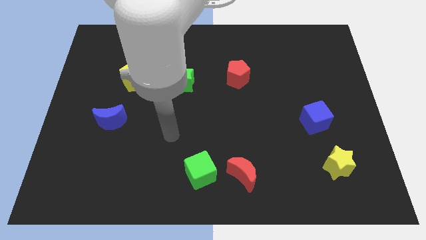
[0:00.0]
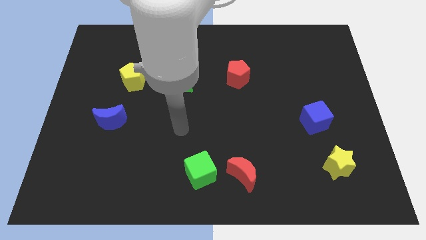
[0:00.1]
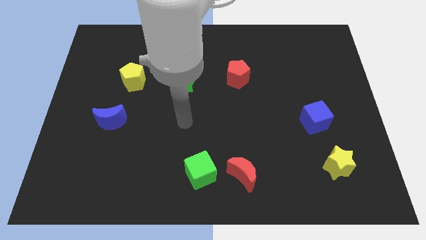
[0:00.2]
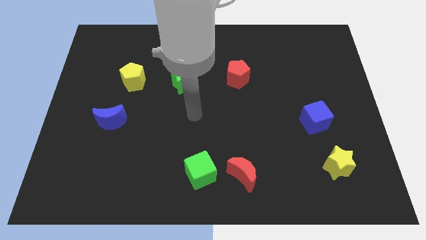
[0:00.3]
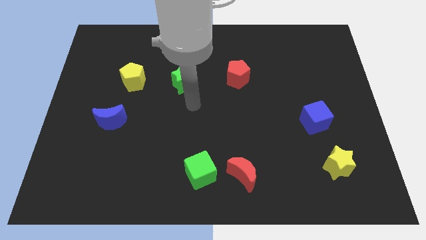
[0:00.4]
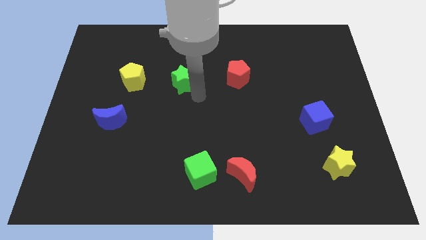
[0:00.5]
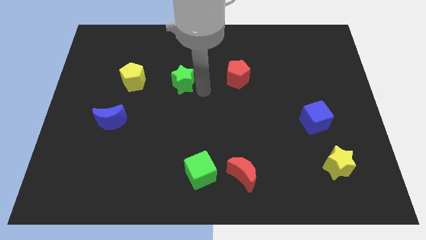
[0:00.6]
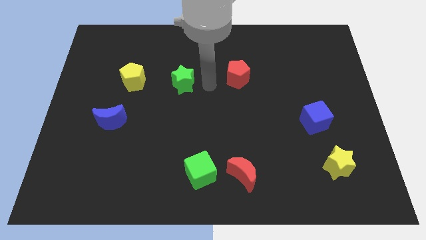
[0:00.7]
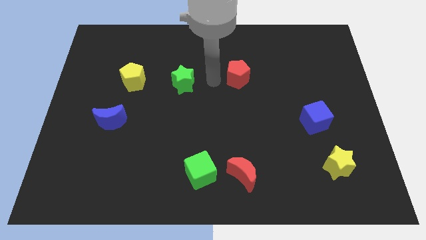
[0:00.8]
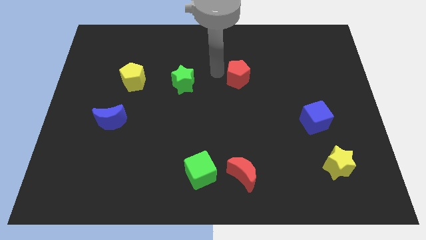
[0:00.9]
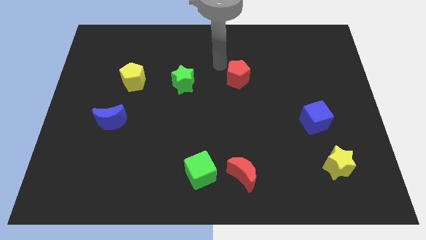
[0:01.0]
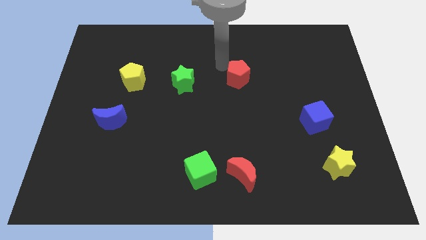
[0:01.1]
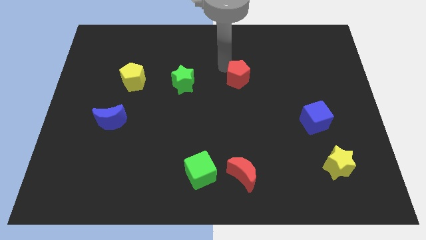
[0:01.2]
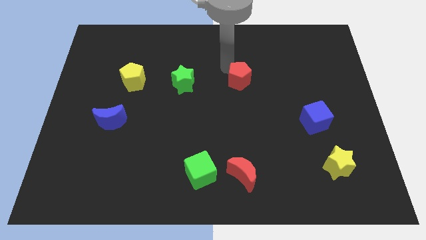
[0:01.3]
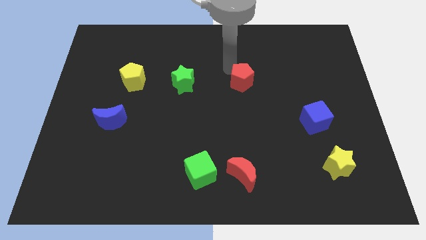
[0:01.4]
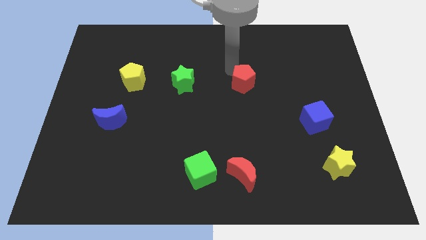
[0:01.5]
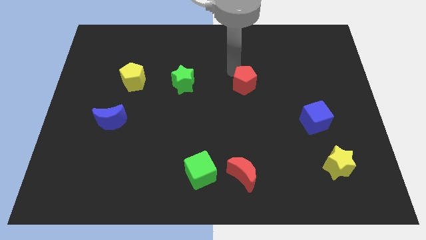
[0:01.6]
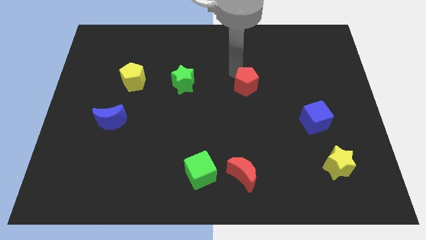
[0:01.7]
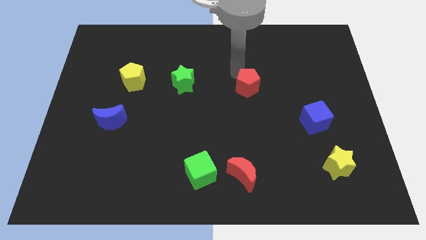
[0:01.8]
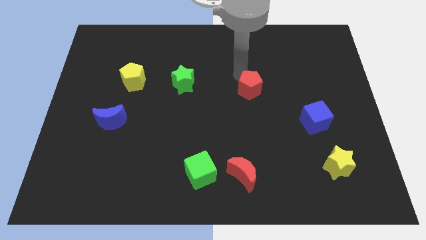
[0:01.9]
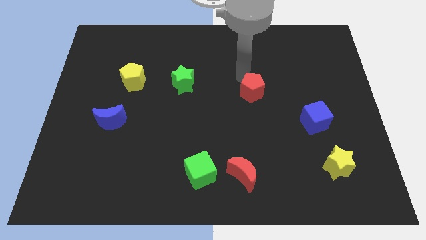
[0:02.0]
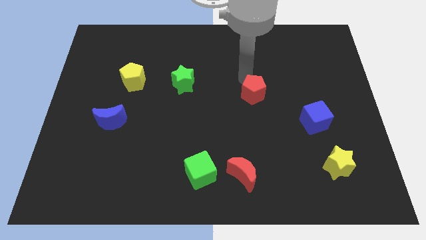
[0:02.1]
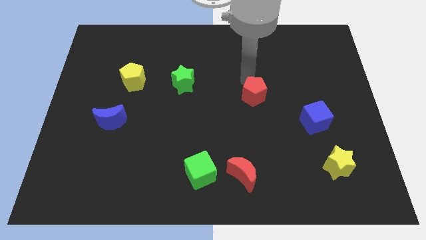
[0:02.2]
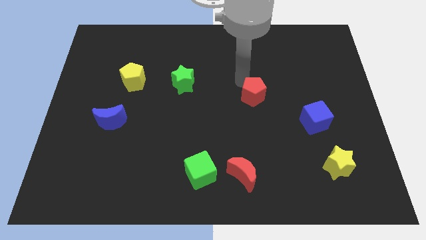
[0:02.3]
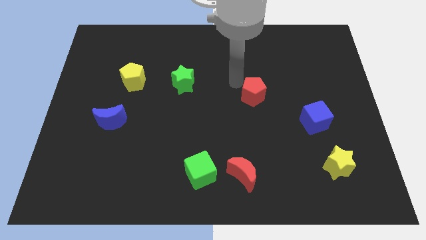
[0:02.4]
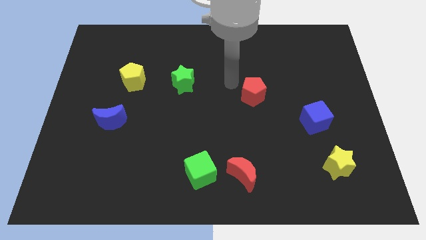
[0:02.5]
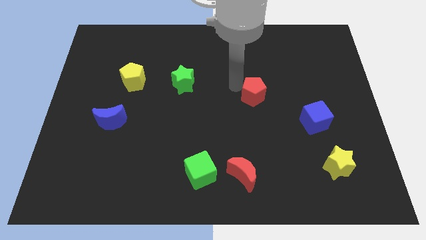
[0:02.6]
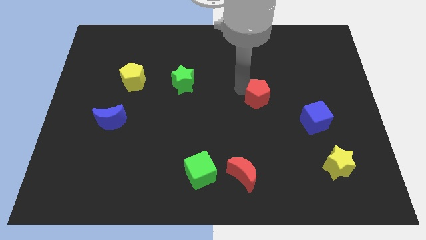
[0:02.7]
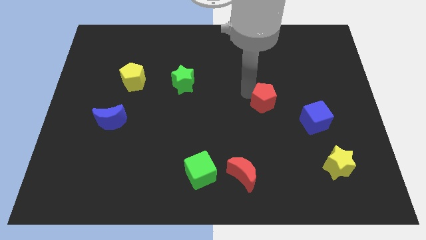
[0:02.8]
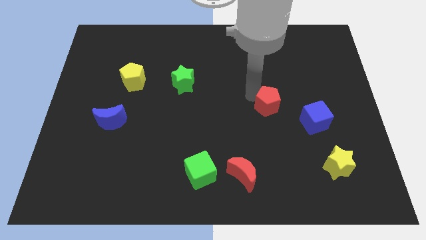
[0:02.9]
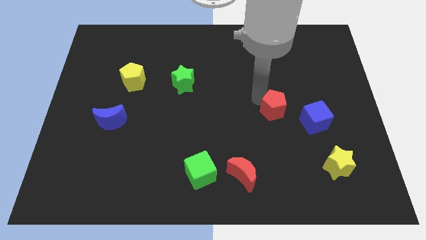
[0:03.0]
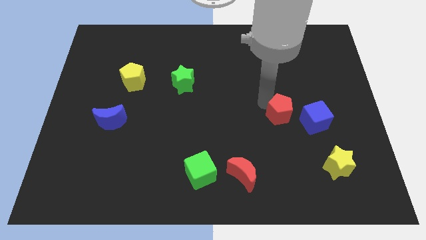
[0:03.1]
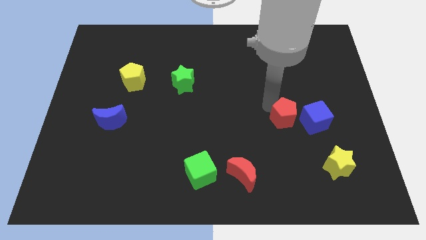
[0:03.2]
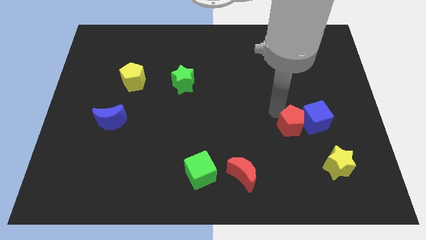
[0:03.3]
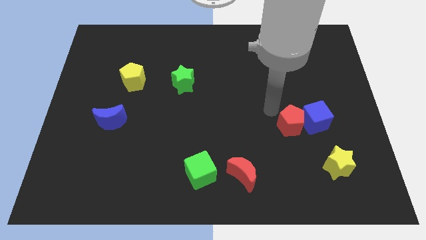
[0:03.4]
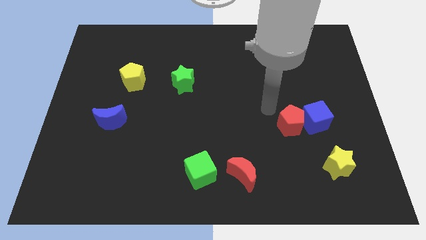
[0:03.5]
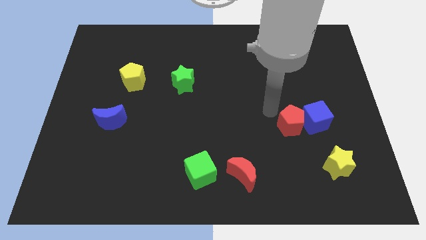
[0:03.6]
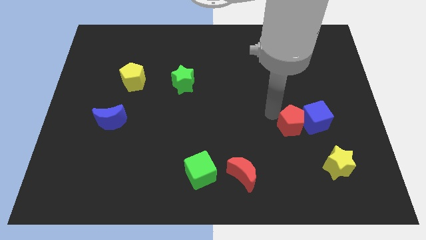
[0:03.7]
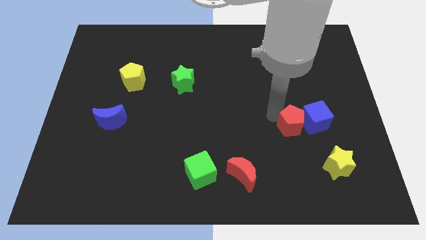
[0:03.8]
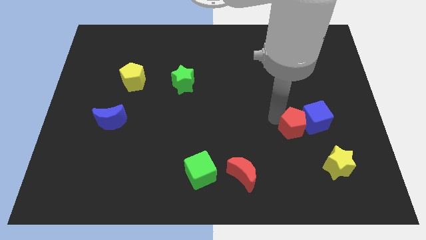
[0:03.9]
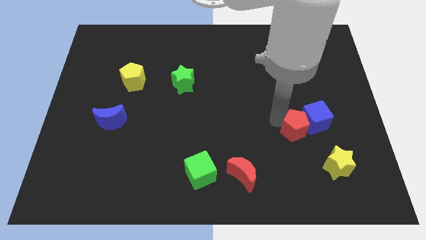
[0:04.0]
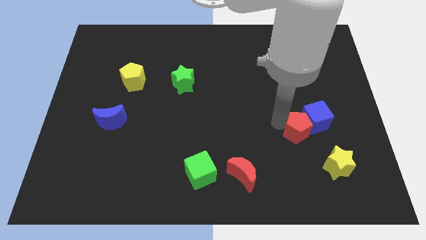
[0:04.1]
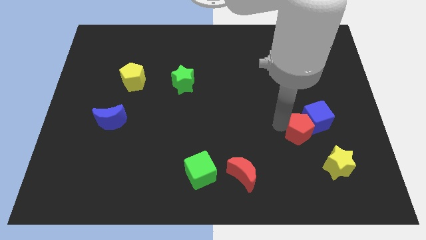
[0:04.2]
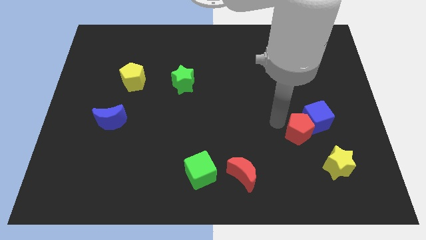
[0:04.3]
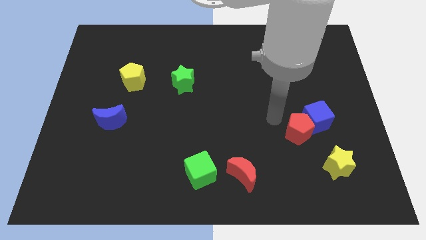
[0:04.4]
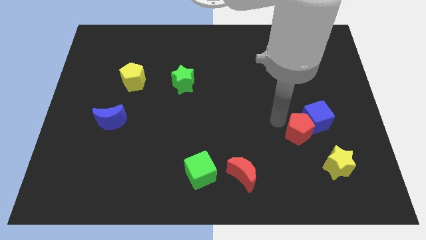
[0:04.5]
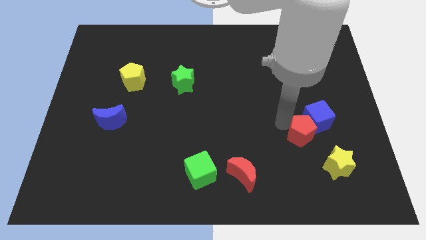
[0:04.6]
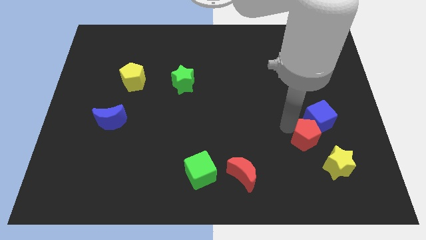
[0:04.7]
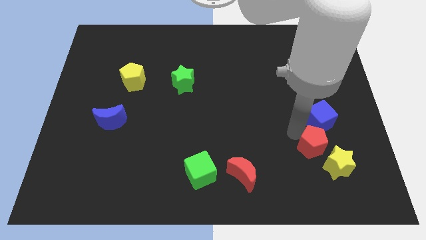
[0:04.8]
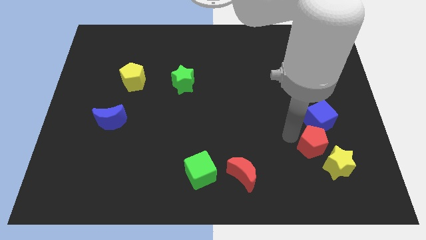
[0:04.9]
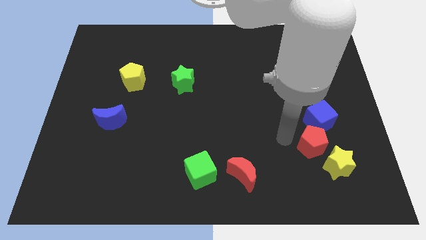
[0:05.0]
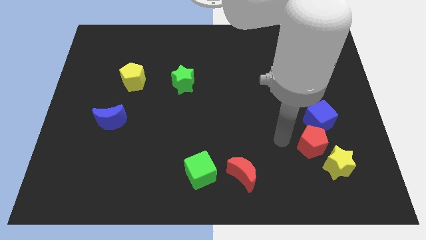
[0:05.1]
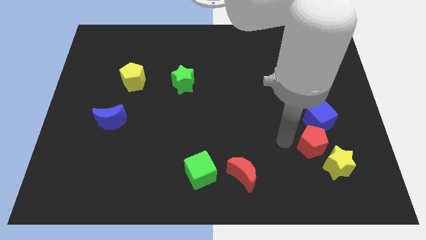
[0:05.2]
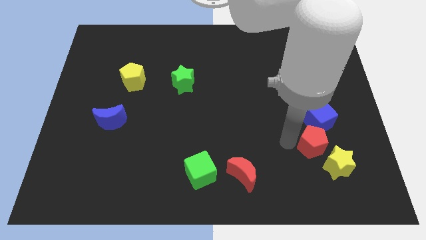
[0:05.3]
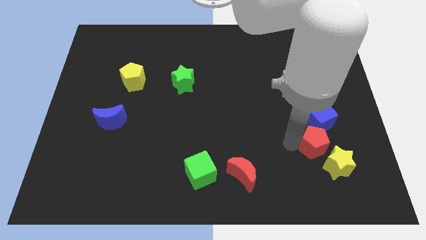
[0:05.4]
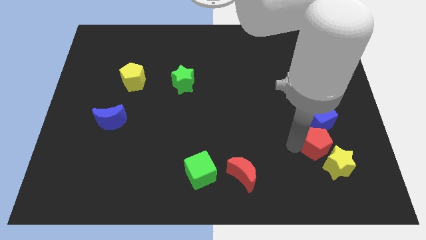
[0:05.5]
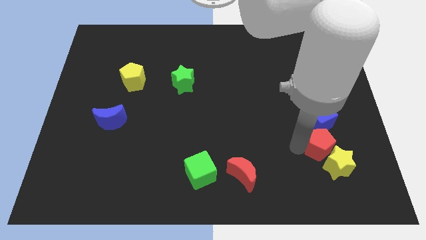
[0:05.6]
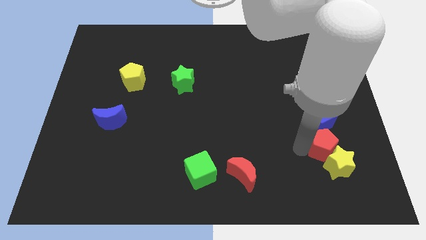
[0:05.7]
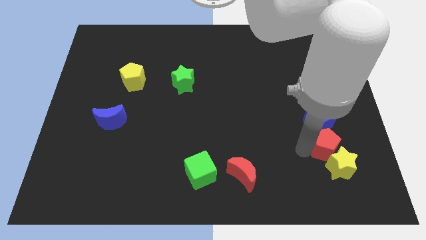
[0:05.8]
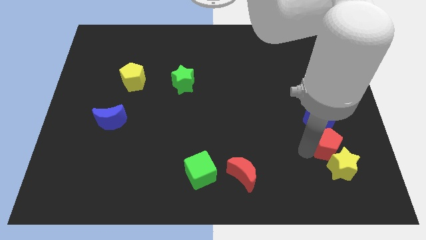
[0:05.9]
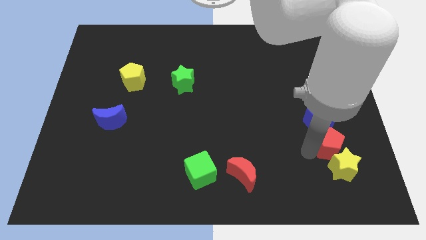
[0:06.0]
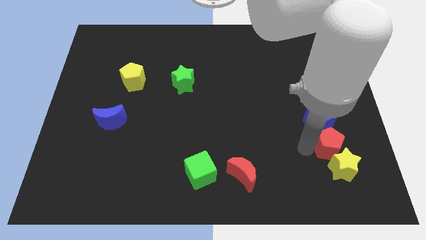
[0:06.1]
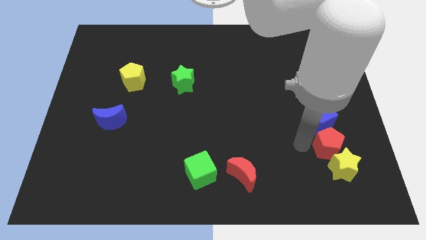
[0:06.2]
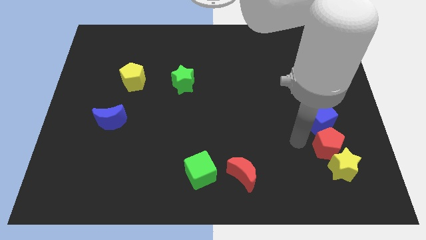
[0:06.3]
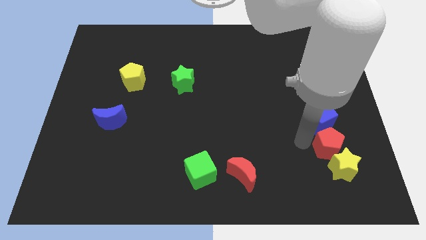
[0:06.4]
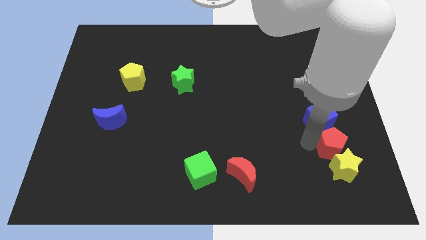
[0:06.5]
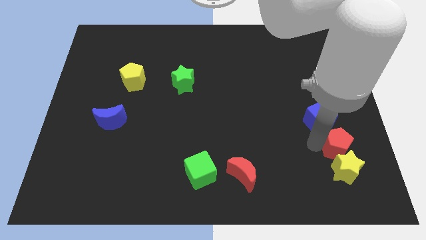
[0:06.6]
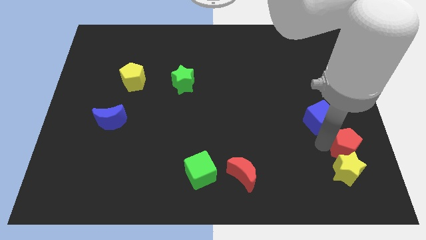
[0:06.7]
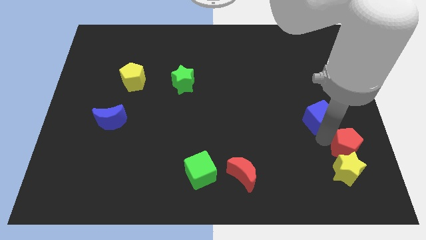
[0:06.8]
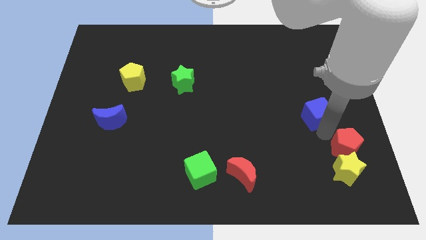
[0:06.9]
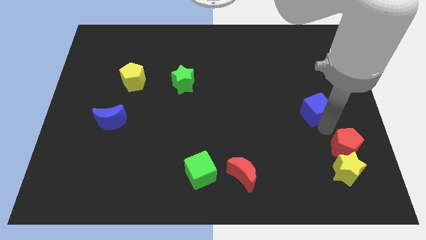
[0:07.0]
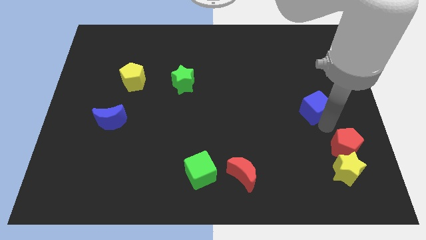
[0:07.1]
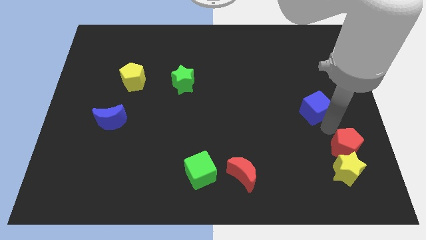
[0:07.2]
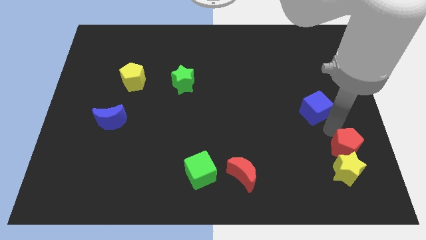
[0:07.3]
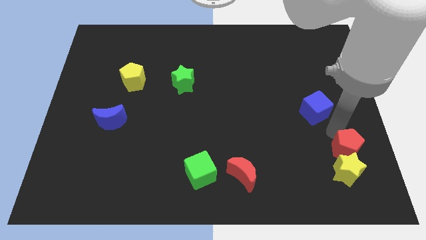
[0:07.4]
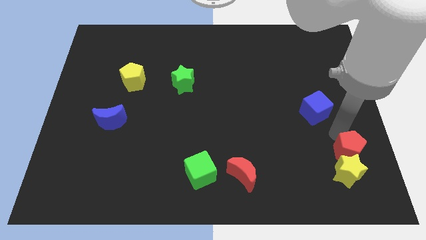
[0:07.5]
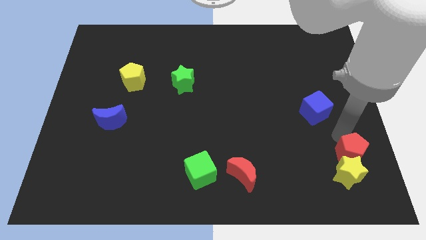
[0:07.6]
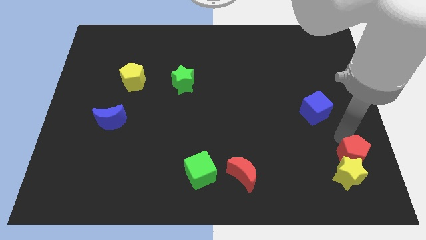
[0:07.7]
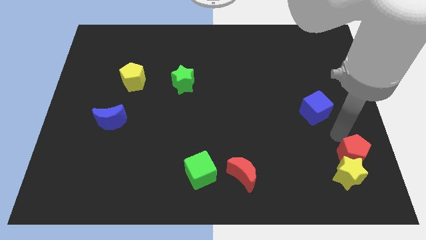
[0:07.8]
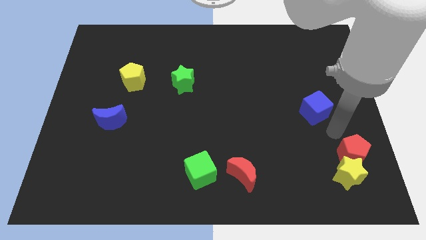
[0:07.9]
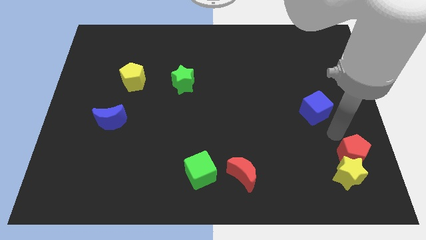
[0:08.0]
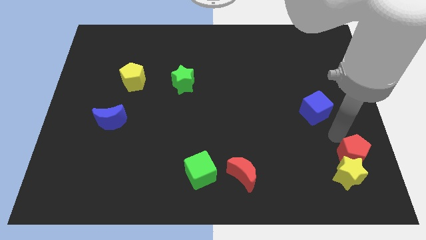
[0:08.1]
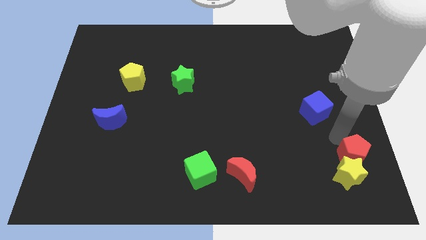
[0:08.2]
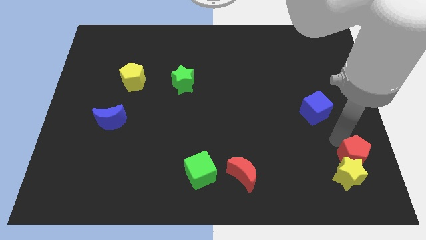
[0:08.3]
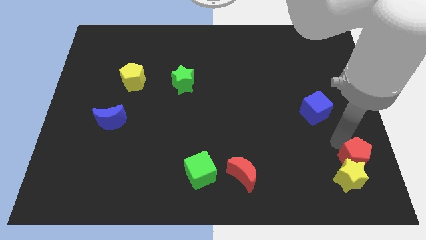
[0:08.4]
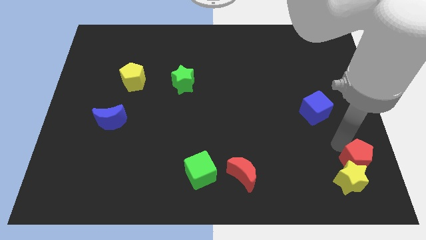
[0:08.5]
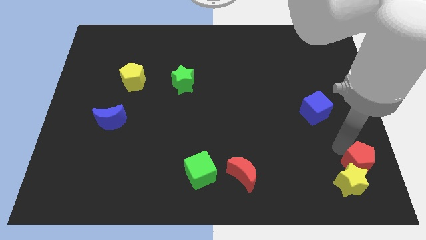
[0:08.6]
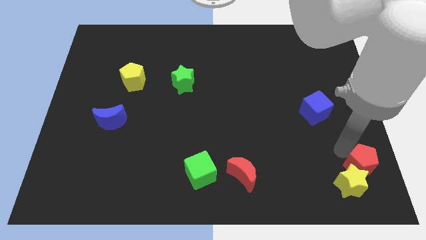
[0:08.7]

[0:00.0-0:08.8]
move the red pentagon to the bottom right
